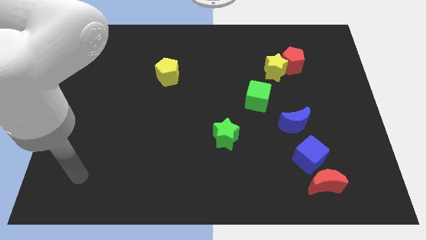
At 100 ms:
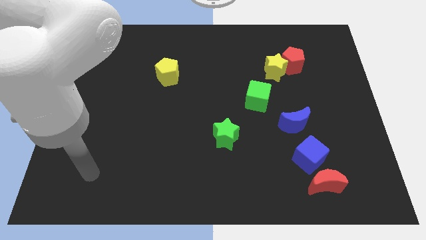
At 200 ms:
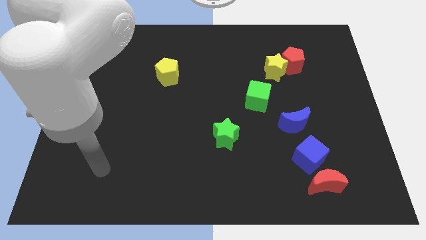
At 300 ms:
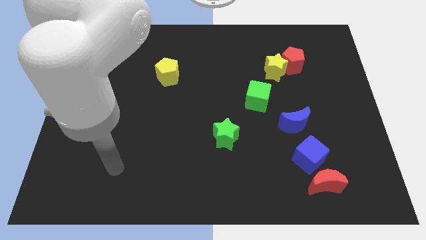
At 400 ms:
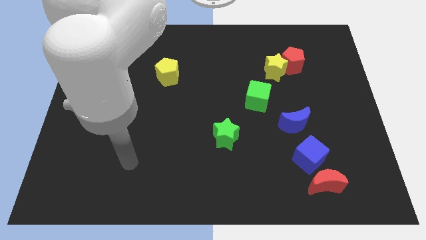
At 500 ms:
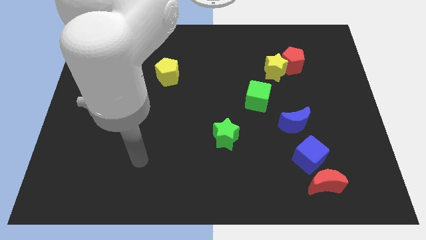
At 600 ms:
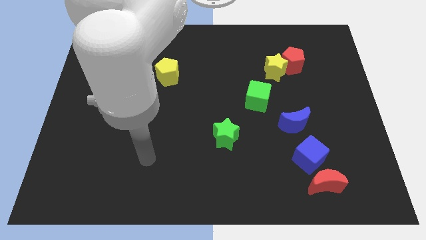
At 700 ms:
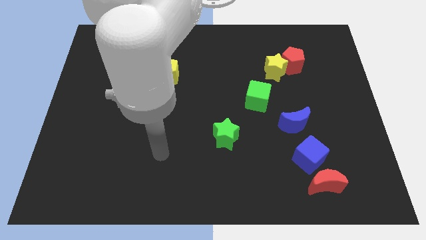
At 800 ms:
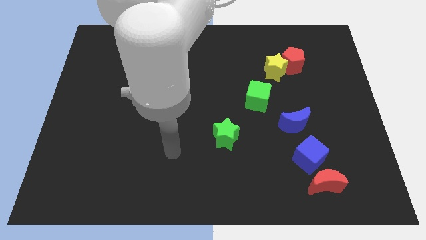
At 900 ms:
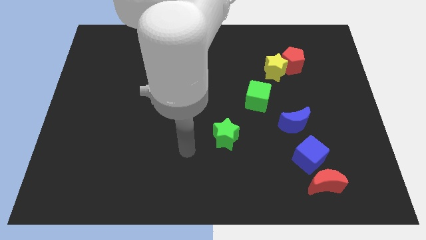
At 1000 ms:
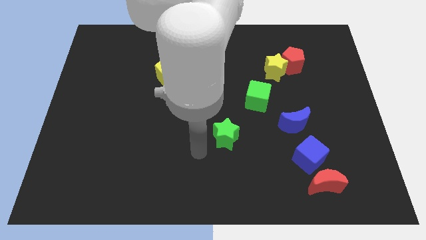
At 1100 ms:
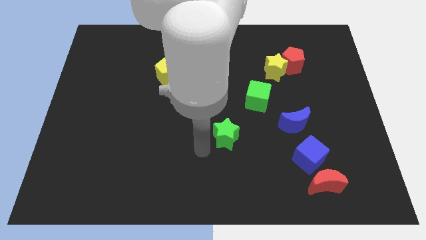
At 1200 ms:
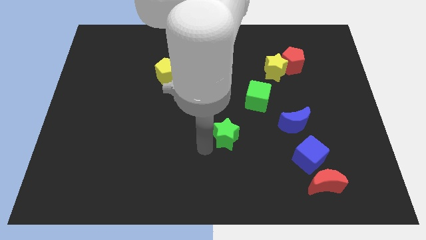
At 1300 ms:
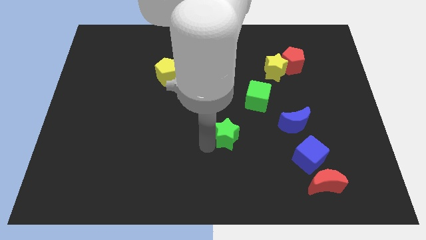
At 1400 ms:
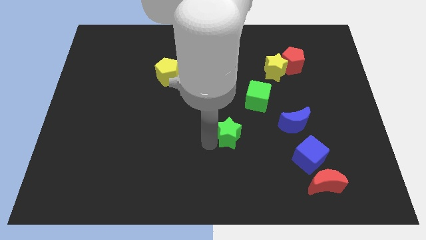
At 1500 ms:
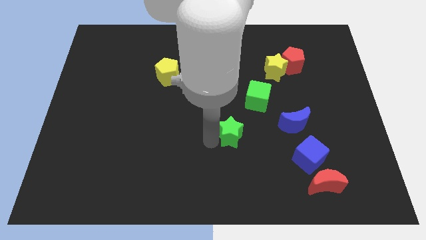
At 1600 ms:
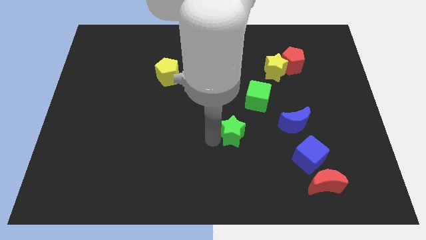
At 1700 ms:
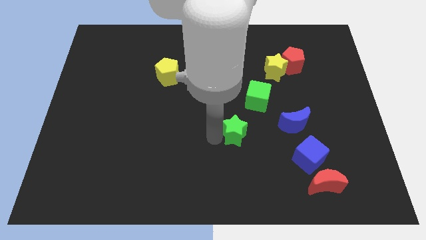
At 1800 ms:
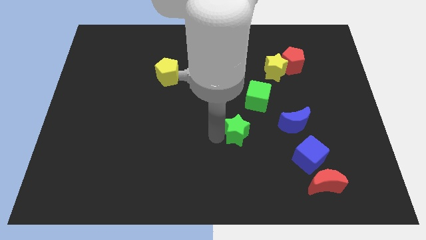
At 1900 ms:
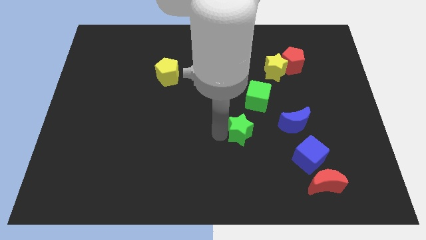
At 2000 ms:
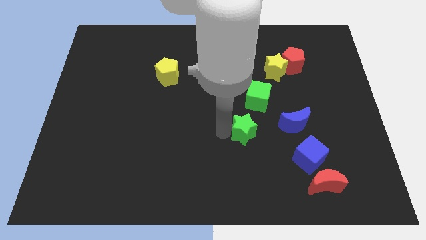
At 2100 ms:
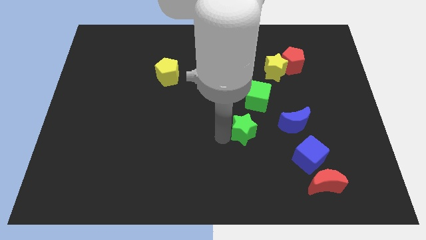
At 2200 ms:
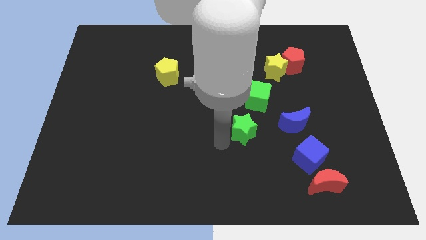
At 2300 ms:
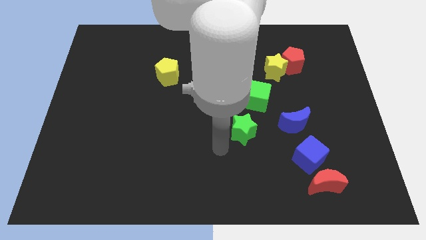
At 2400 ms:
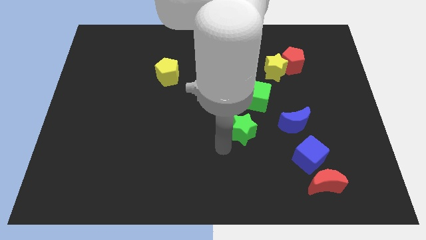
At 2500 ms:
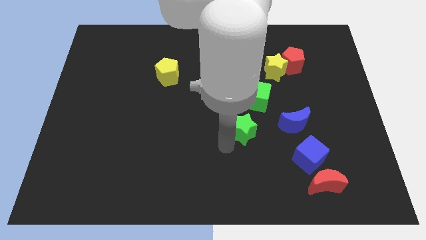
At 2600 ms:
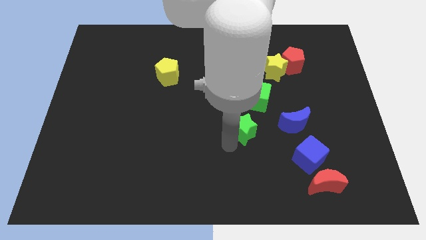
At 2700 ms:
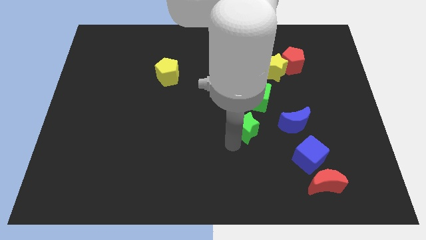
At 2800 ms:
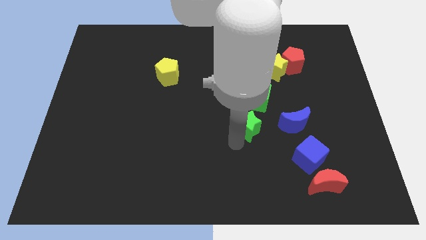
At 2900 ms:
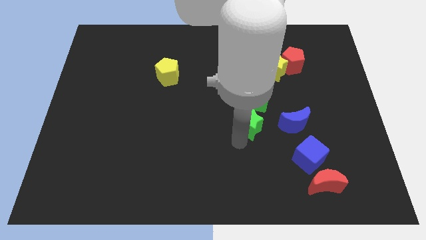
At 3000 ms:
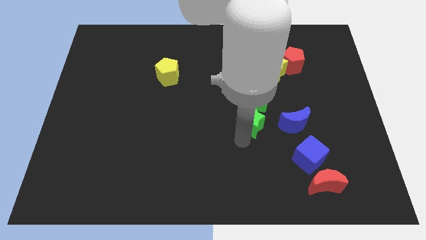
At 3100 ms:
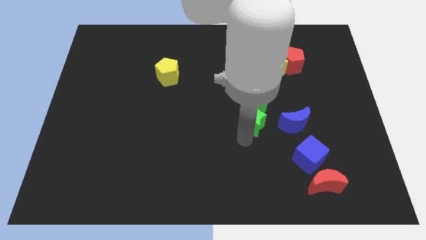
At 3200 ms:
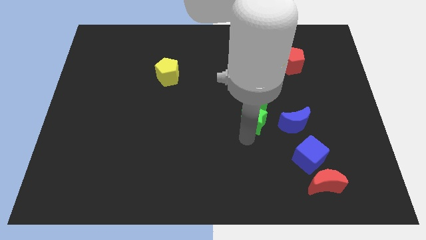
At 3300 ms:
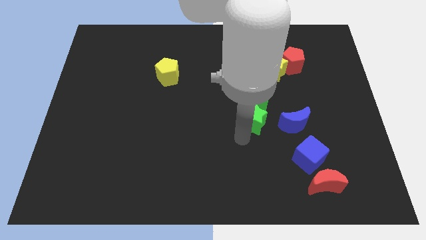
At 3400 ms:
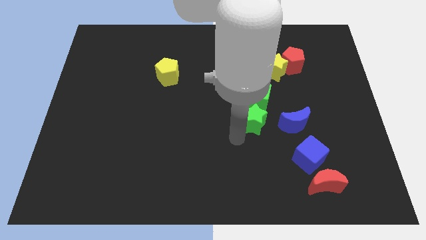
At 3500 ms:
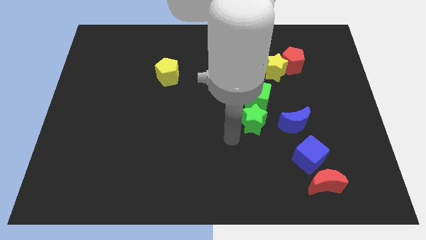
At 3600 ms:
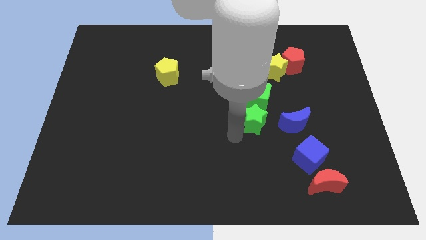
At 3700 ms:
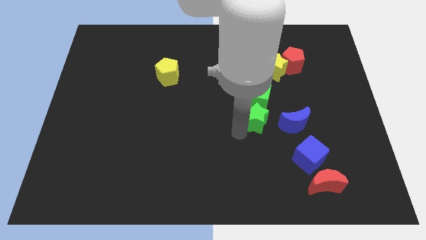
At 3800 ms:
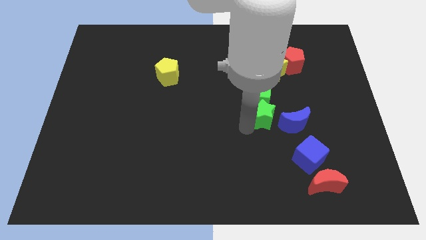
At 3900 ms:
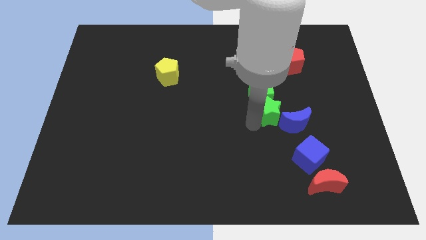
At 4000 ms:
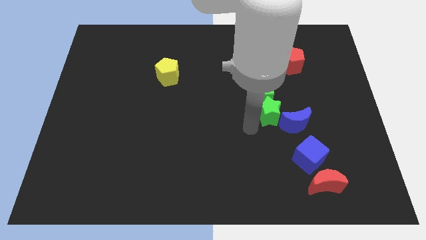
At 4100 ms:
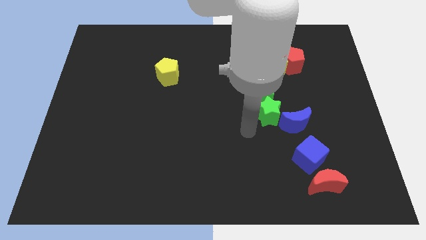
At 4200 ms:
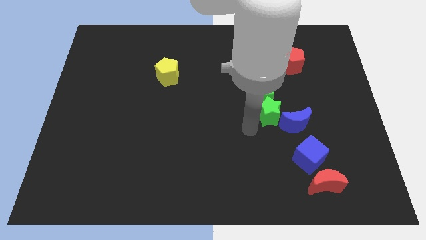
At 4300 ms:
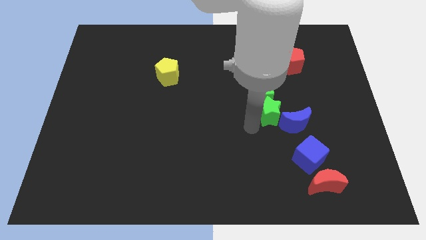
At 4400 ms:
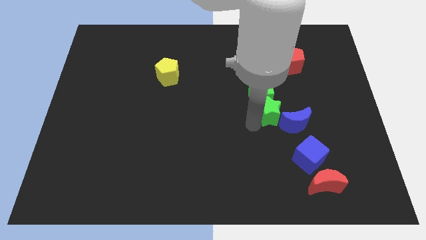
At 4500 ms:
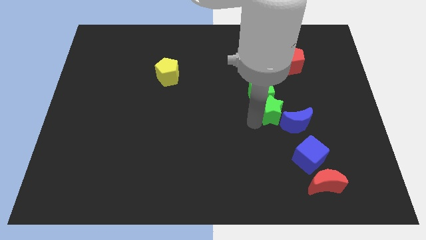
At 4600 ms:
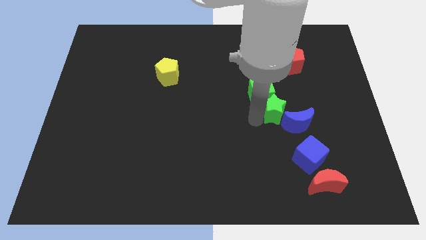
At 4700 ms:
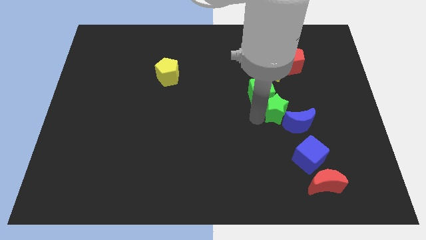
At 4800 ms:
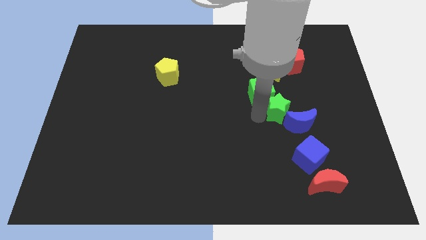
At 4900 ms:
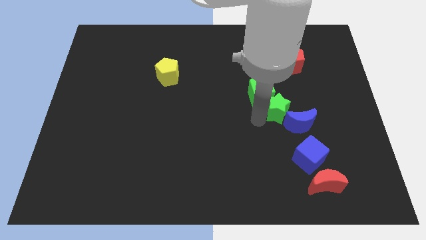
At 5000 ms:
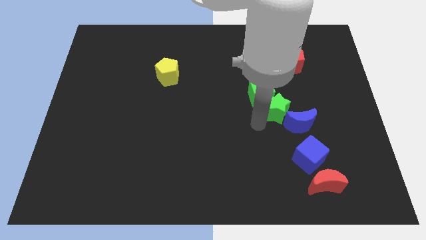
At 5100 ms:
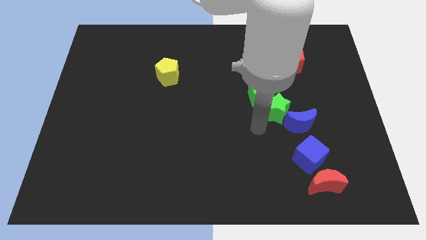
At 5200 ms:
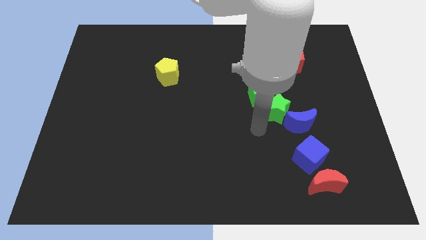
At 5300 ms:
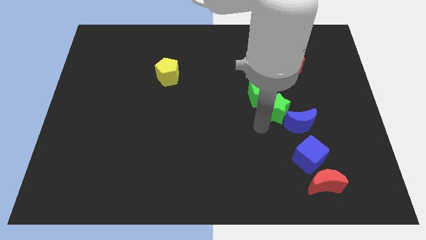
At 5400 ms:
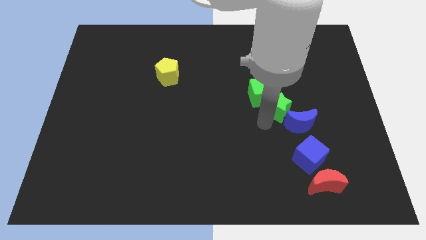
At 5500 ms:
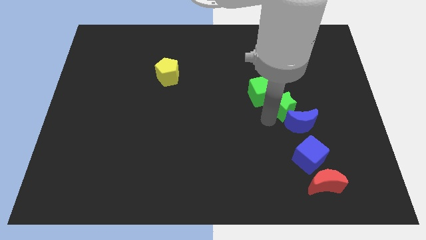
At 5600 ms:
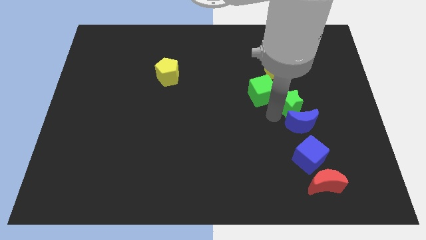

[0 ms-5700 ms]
put the green star to the bottom side of the red pentagon

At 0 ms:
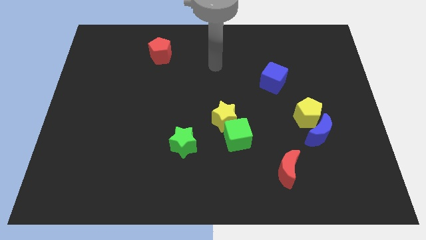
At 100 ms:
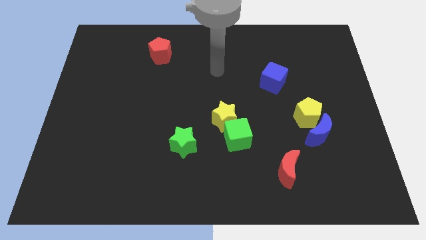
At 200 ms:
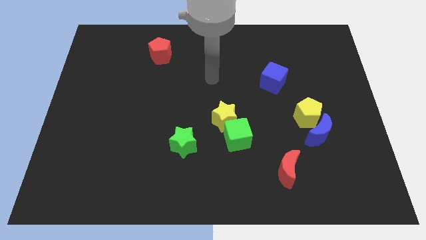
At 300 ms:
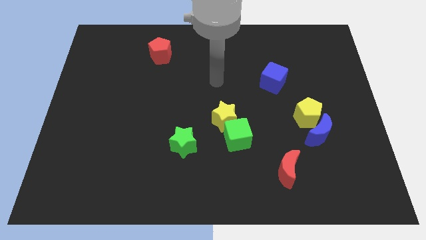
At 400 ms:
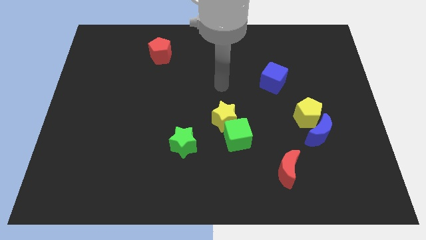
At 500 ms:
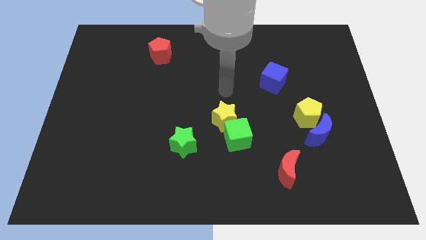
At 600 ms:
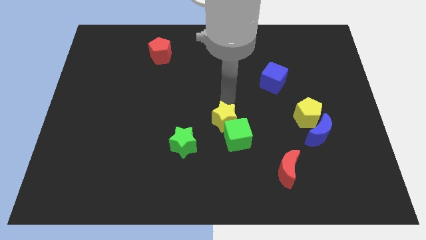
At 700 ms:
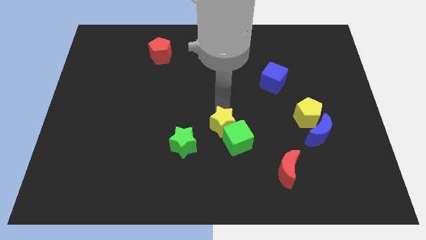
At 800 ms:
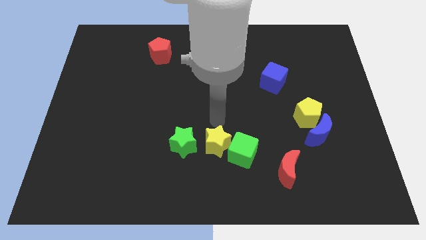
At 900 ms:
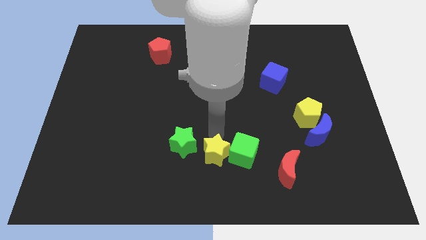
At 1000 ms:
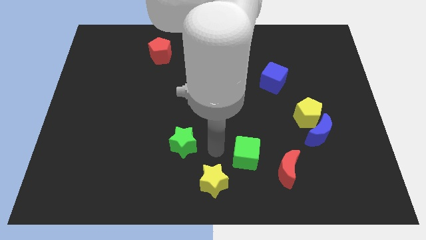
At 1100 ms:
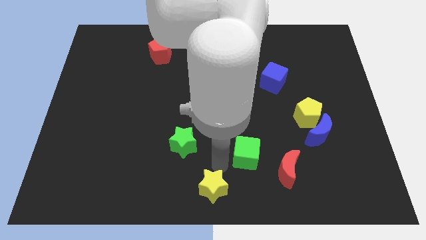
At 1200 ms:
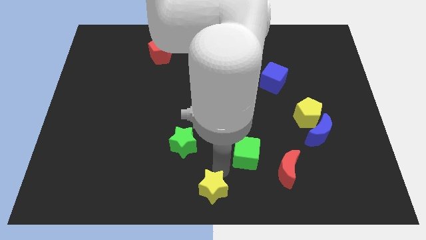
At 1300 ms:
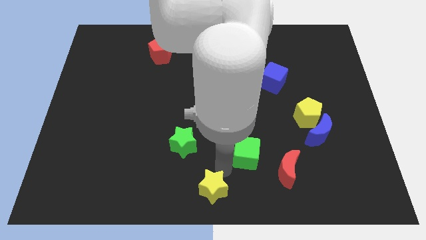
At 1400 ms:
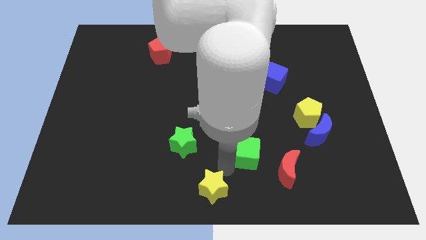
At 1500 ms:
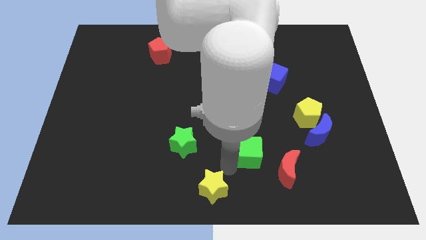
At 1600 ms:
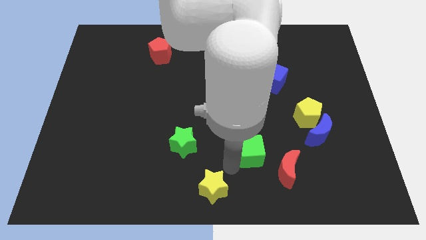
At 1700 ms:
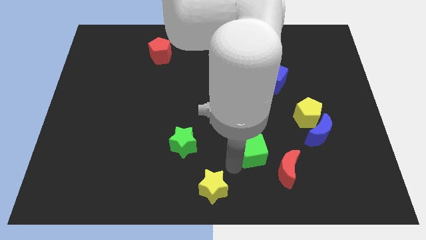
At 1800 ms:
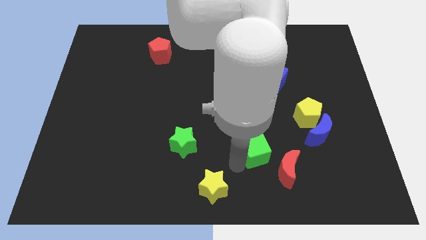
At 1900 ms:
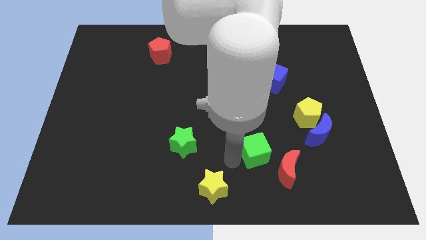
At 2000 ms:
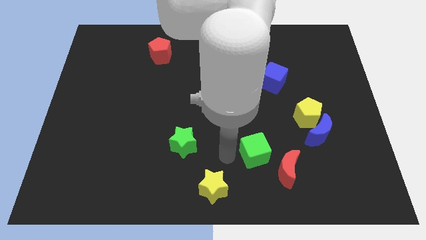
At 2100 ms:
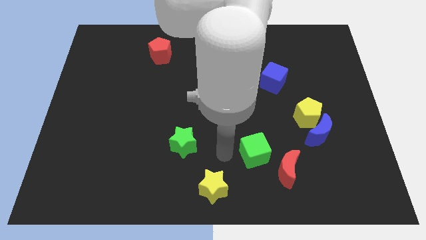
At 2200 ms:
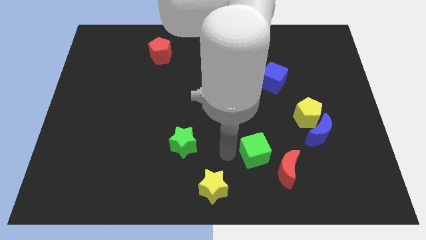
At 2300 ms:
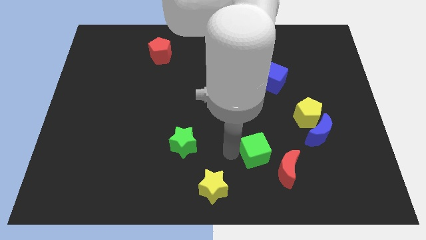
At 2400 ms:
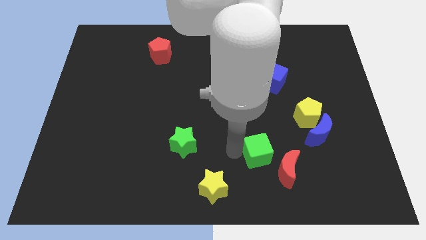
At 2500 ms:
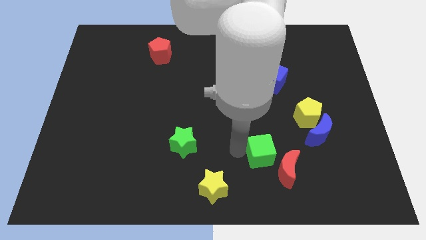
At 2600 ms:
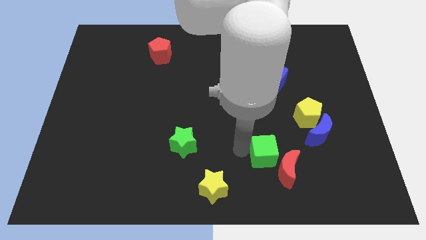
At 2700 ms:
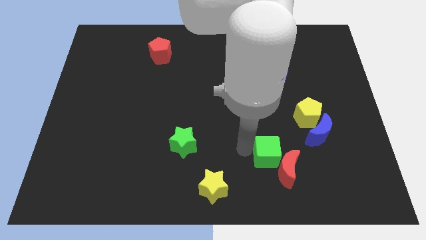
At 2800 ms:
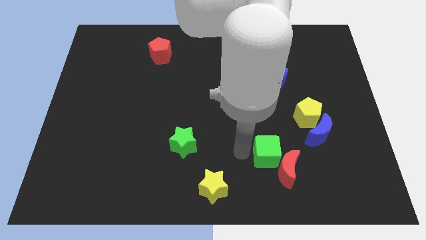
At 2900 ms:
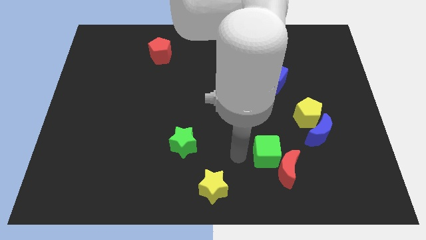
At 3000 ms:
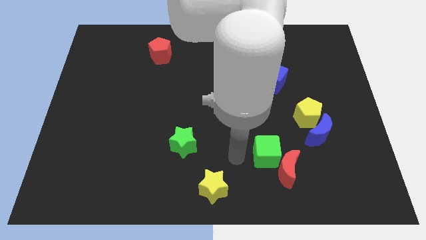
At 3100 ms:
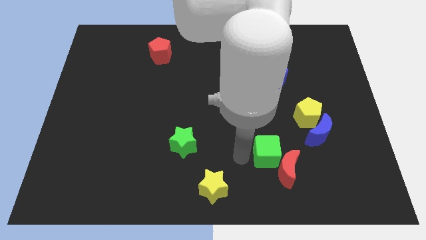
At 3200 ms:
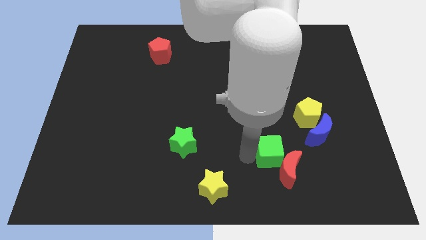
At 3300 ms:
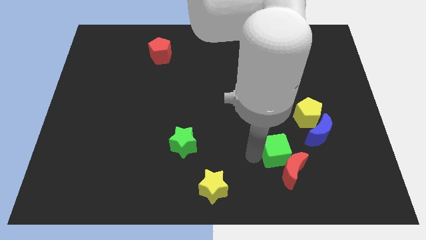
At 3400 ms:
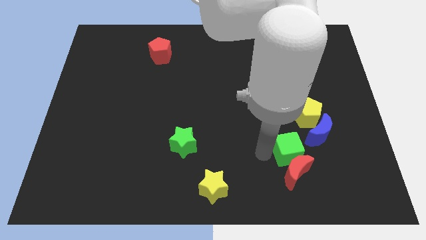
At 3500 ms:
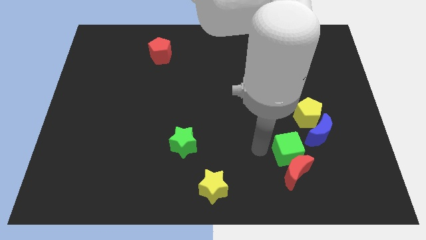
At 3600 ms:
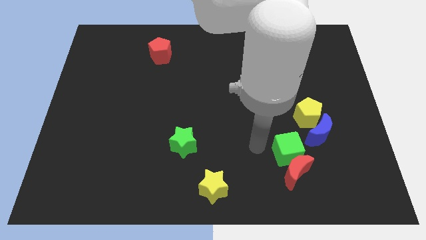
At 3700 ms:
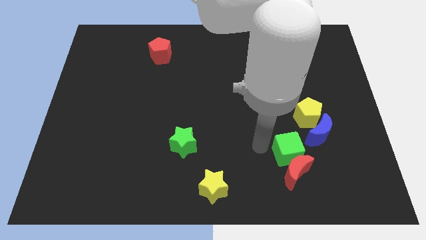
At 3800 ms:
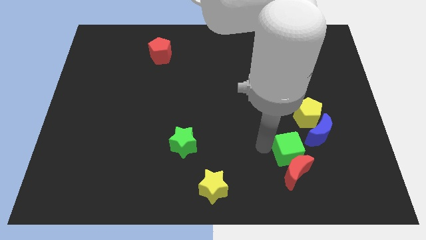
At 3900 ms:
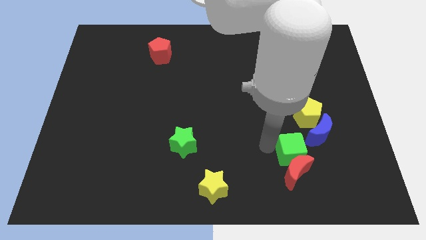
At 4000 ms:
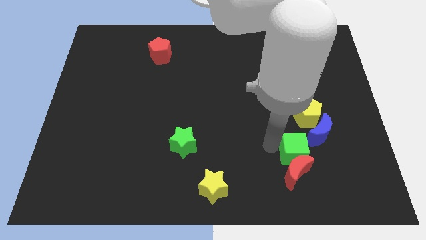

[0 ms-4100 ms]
push the green cube to the bottom of the yellow pentagon
